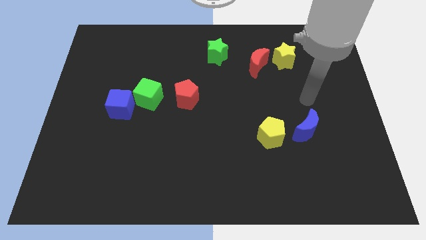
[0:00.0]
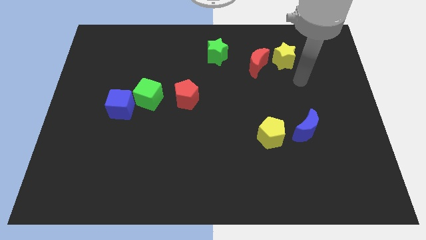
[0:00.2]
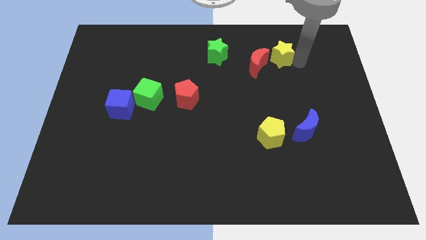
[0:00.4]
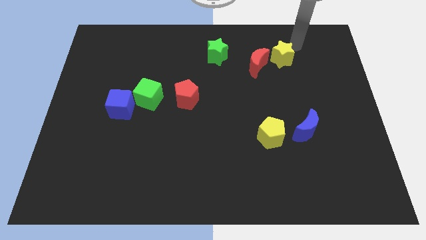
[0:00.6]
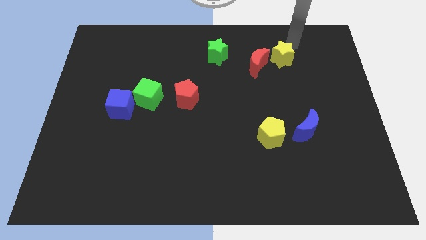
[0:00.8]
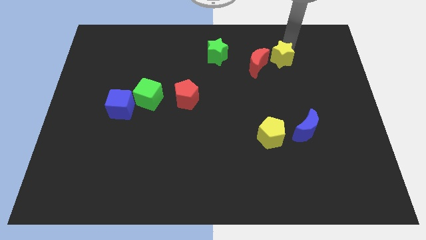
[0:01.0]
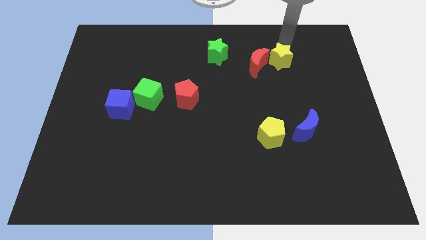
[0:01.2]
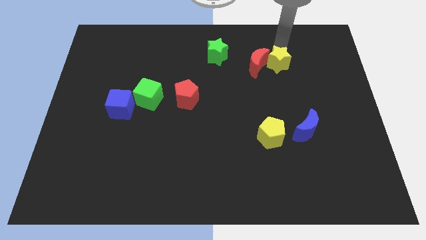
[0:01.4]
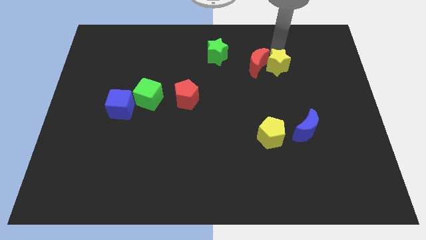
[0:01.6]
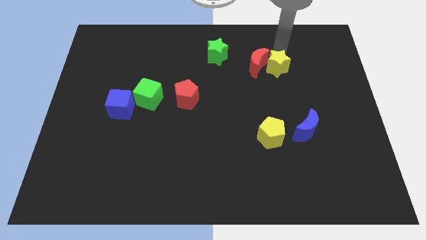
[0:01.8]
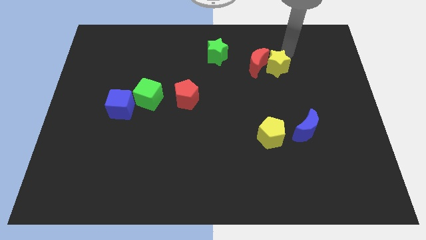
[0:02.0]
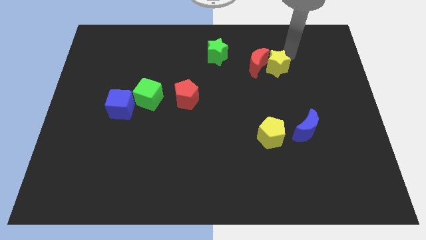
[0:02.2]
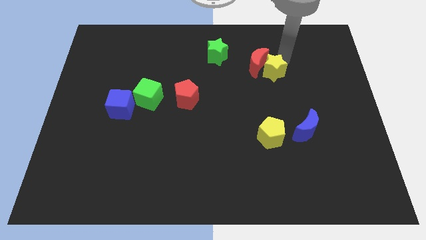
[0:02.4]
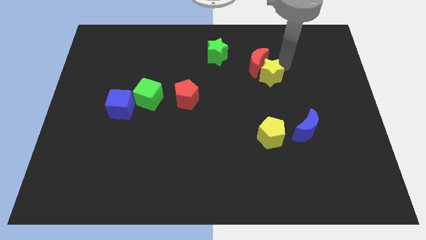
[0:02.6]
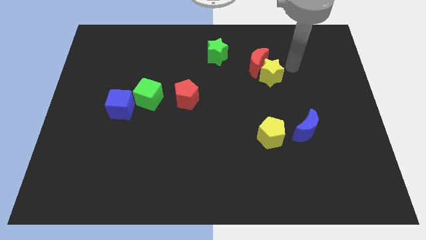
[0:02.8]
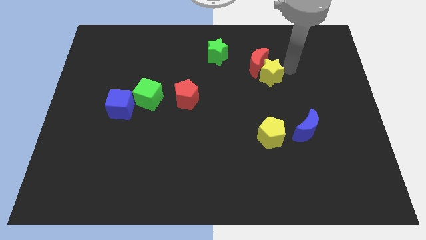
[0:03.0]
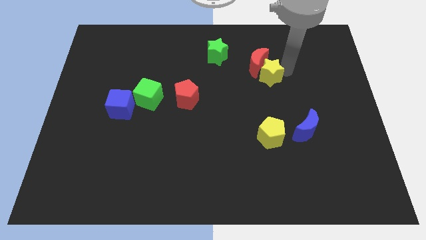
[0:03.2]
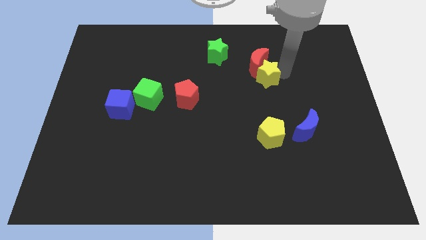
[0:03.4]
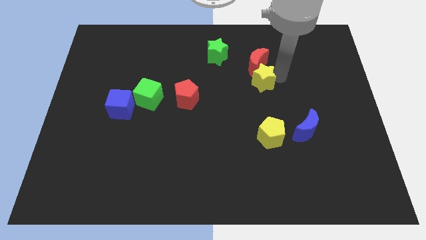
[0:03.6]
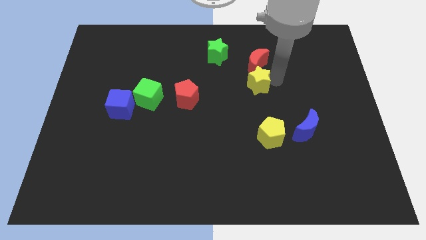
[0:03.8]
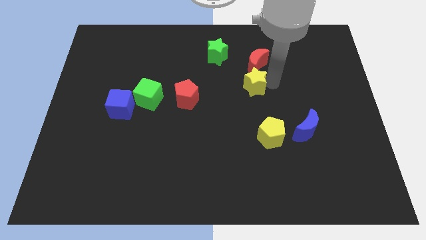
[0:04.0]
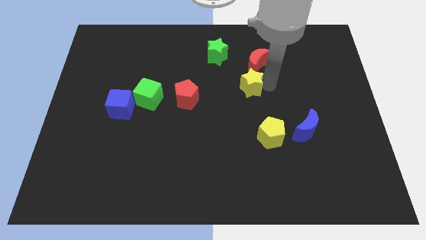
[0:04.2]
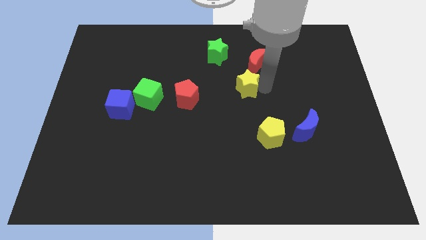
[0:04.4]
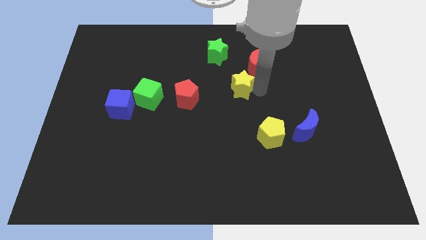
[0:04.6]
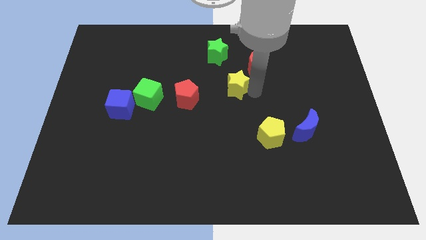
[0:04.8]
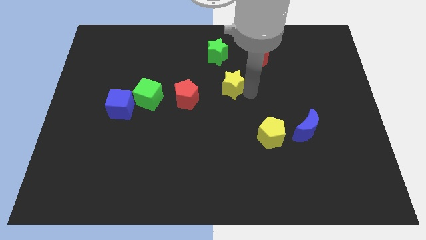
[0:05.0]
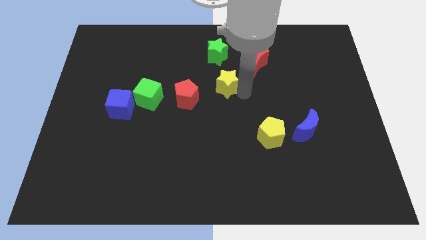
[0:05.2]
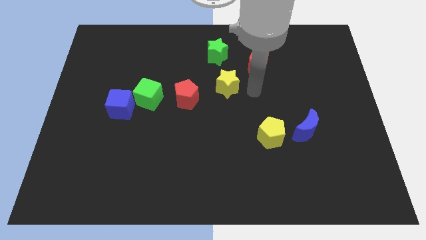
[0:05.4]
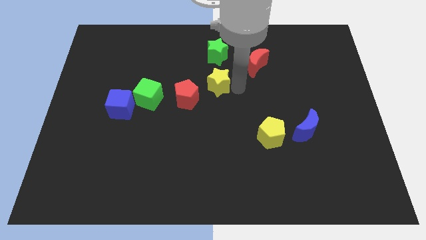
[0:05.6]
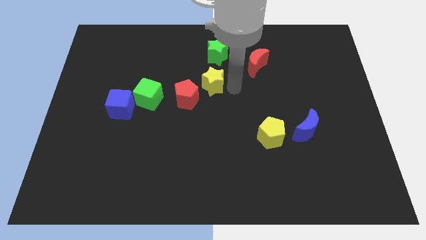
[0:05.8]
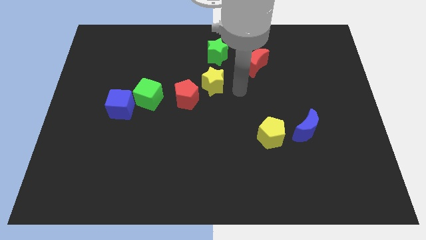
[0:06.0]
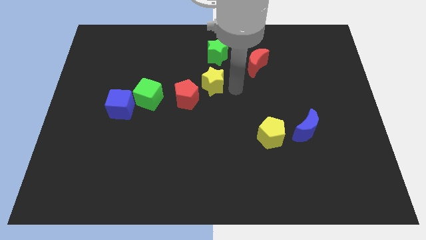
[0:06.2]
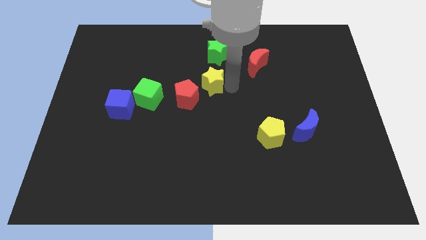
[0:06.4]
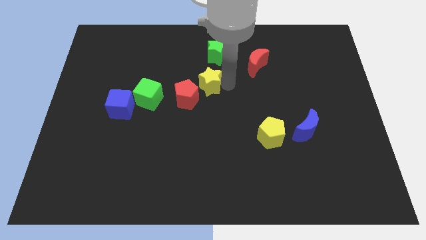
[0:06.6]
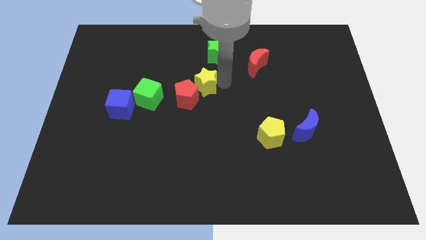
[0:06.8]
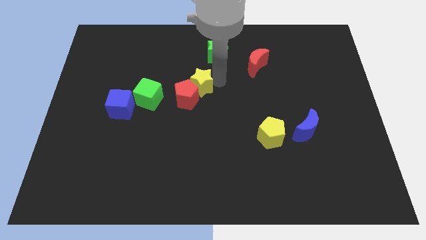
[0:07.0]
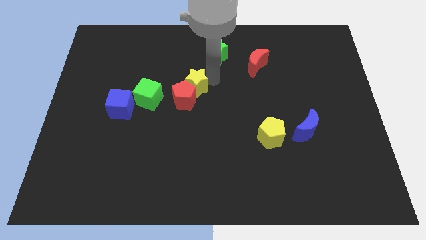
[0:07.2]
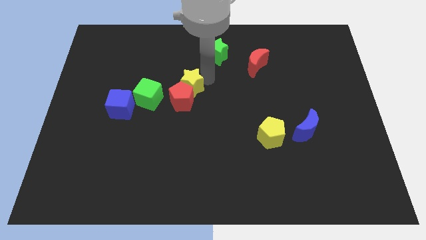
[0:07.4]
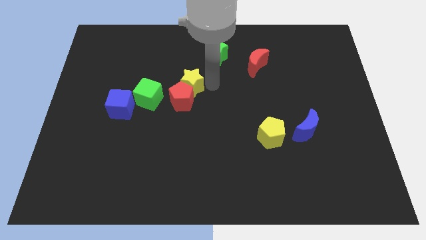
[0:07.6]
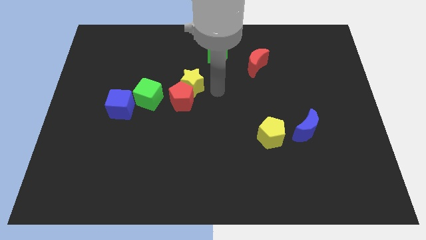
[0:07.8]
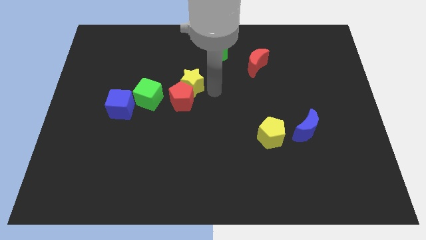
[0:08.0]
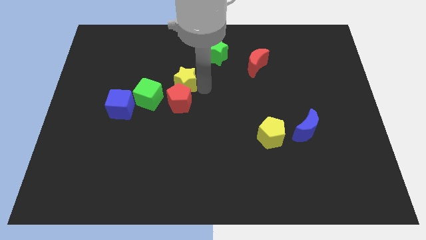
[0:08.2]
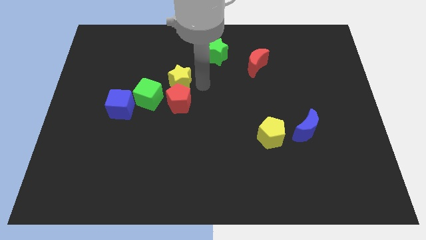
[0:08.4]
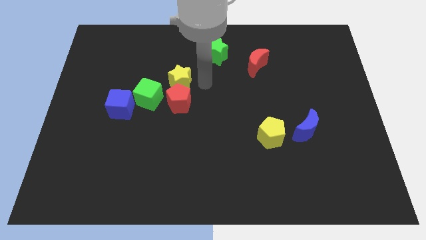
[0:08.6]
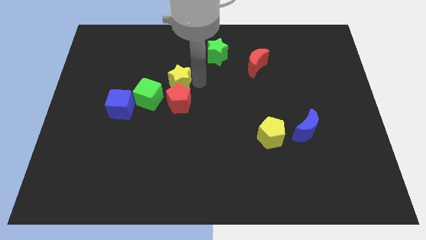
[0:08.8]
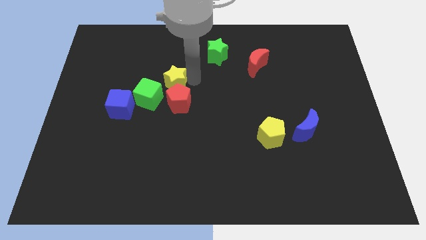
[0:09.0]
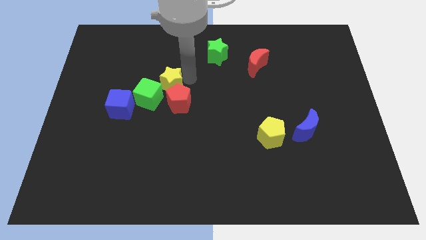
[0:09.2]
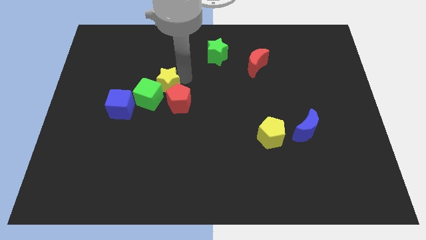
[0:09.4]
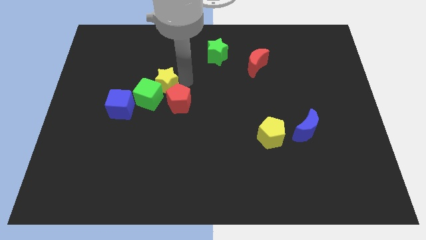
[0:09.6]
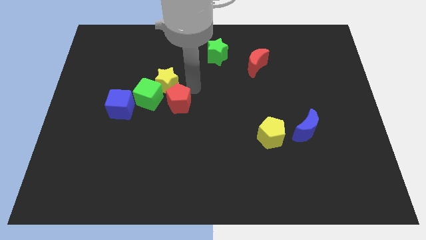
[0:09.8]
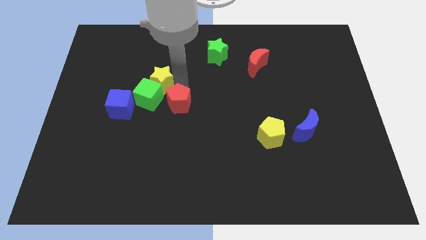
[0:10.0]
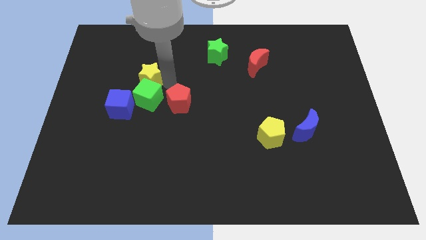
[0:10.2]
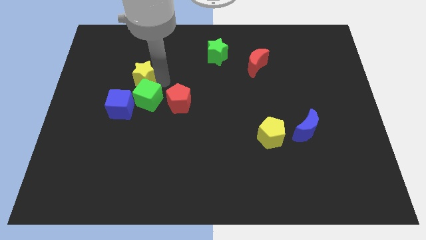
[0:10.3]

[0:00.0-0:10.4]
slide the yellow star above the blue cube

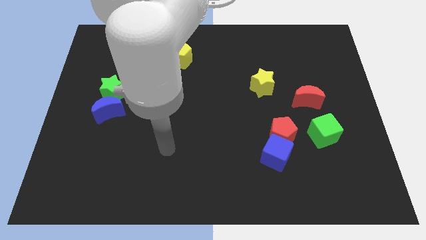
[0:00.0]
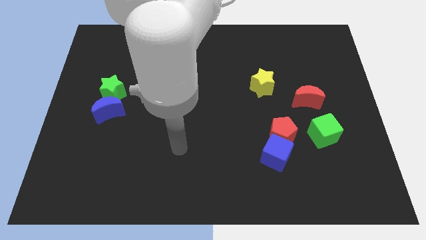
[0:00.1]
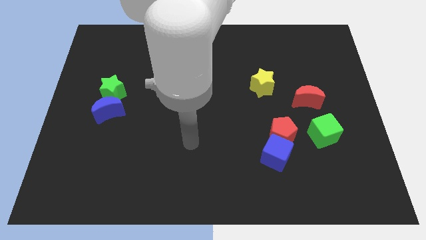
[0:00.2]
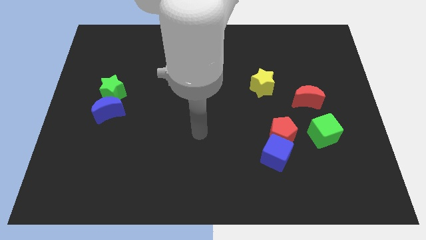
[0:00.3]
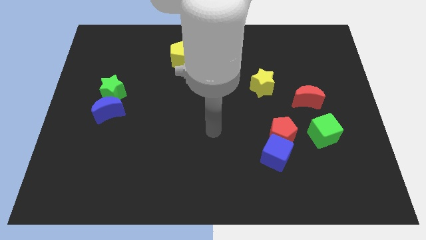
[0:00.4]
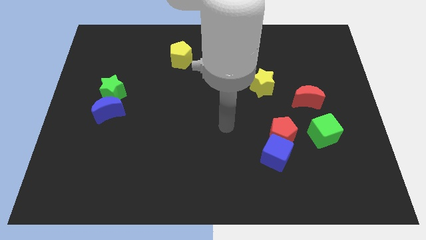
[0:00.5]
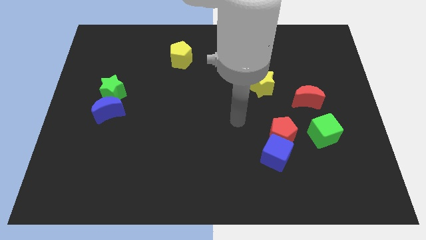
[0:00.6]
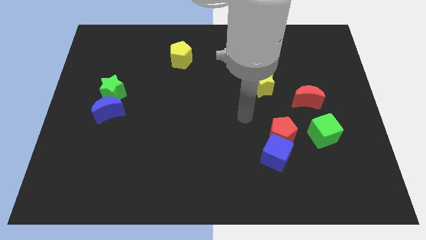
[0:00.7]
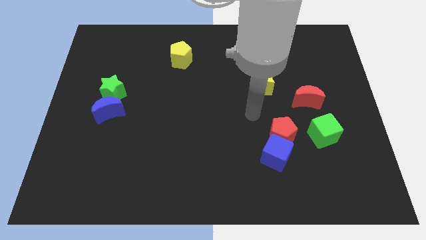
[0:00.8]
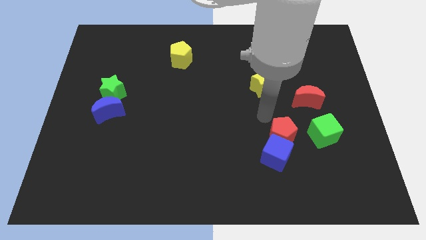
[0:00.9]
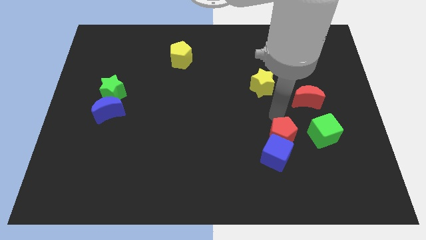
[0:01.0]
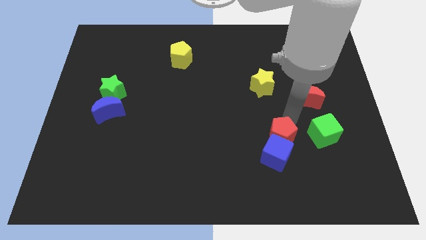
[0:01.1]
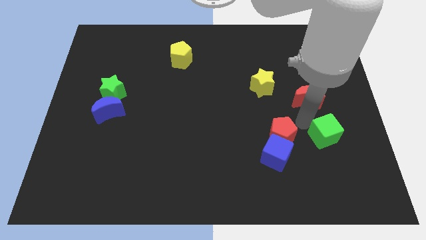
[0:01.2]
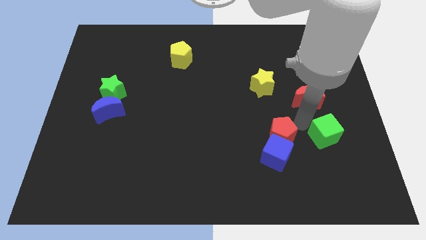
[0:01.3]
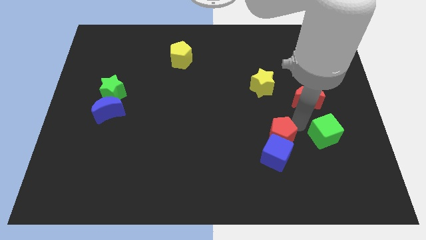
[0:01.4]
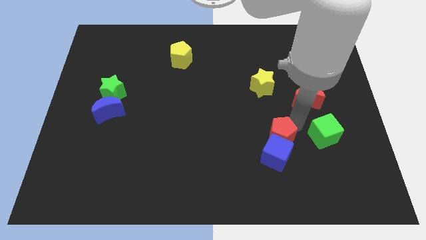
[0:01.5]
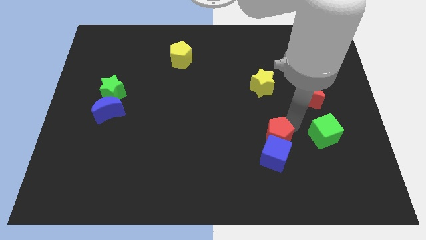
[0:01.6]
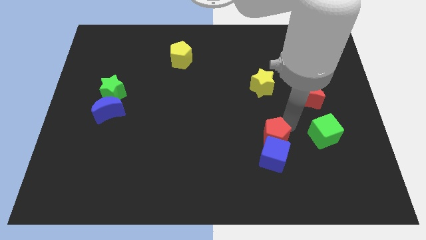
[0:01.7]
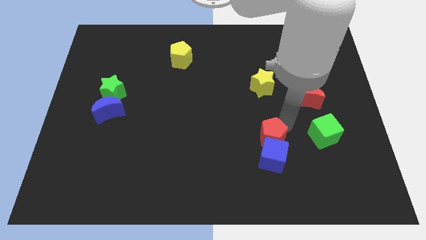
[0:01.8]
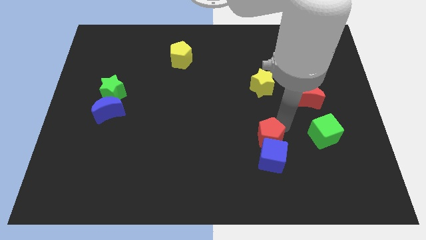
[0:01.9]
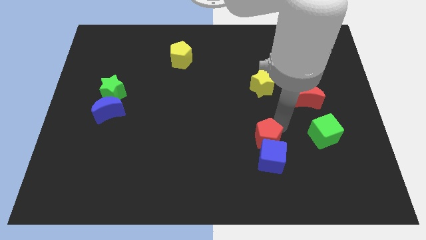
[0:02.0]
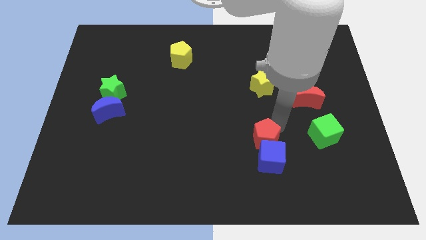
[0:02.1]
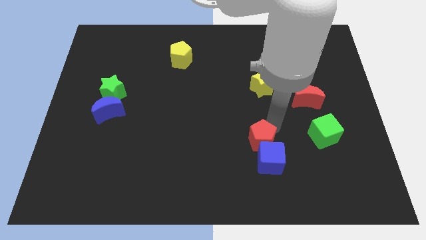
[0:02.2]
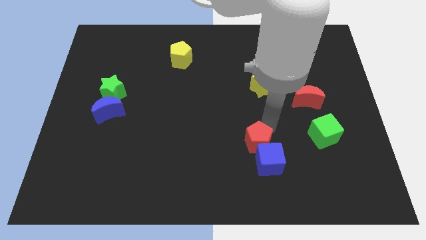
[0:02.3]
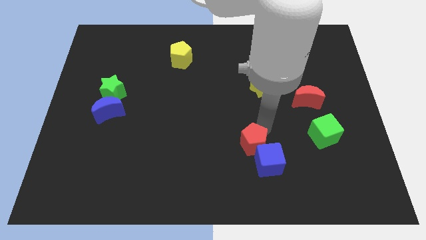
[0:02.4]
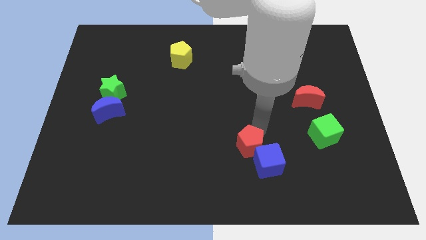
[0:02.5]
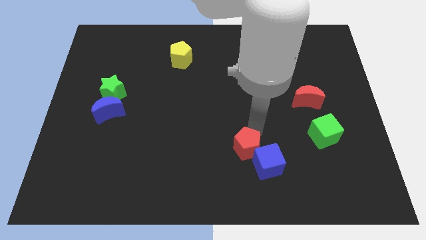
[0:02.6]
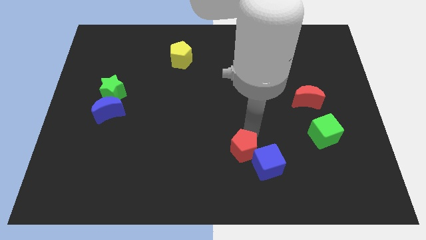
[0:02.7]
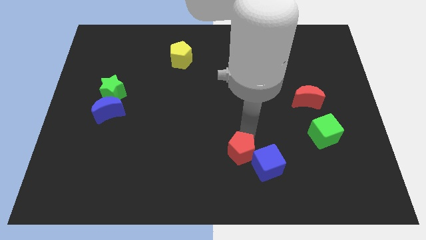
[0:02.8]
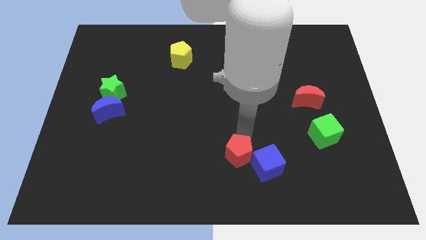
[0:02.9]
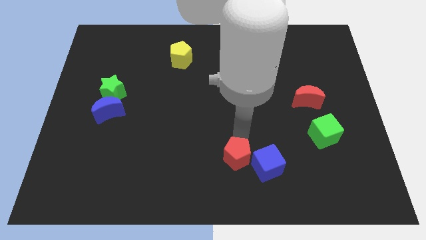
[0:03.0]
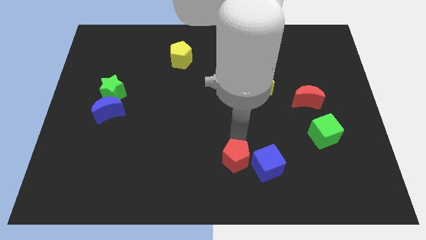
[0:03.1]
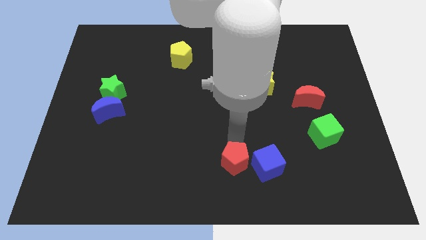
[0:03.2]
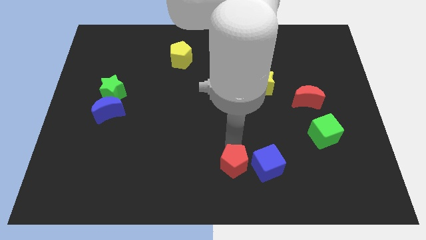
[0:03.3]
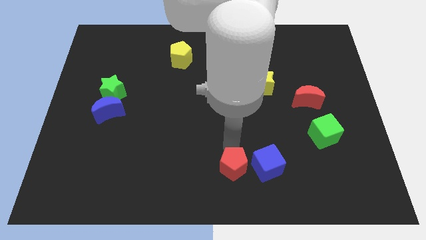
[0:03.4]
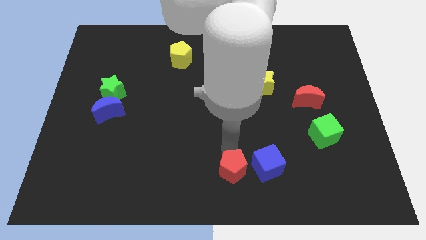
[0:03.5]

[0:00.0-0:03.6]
push the red pentagon diagonally down and to the left of the blue cube
